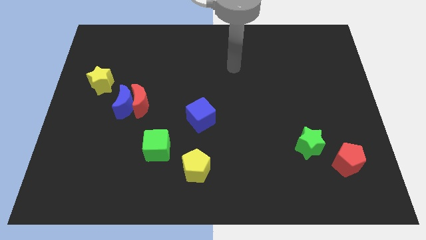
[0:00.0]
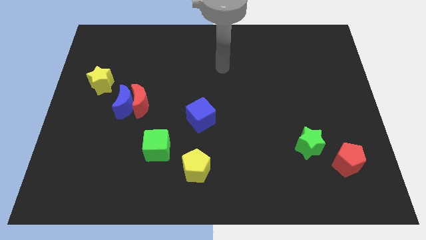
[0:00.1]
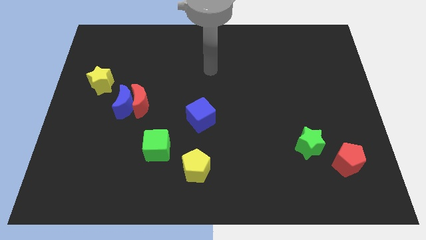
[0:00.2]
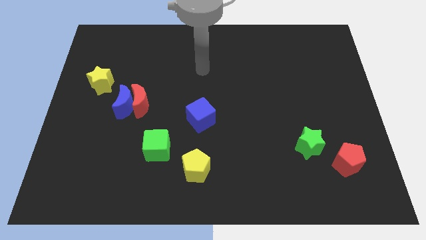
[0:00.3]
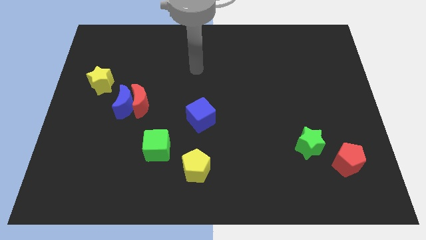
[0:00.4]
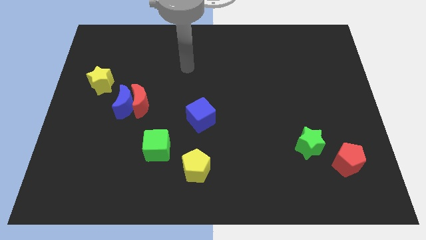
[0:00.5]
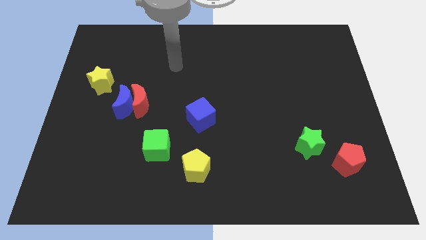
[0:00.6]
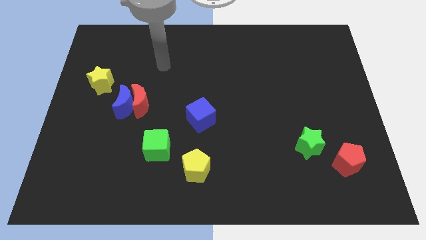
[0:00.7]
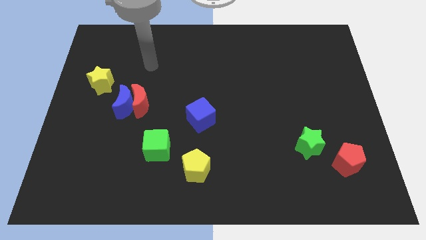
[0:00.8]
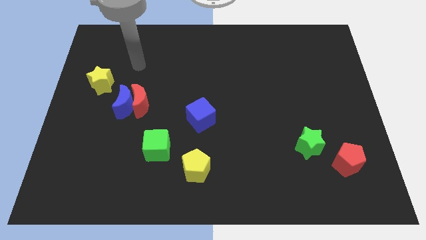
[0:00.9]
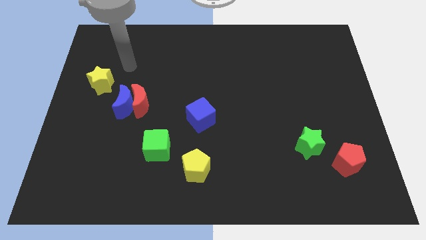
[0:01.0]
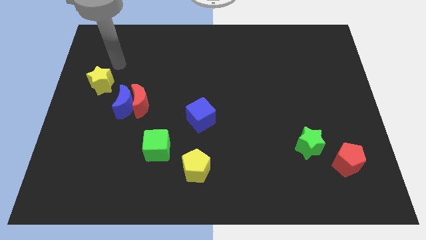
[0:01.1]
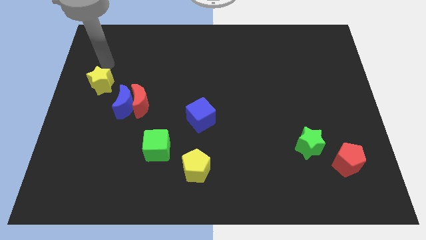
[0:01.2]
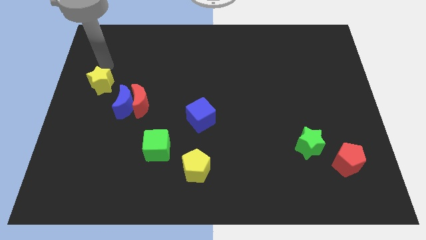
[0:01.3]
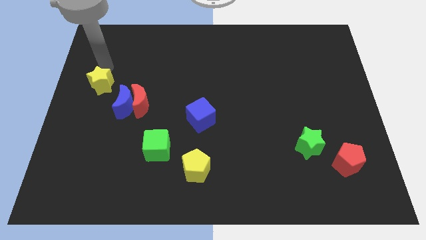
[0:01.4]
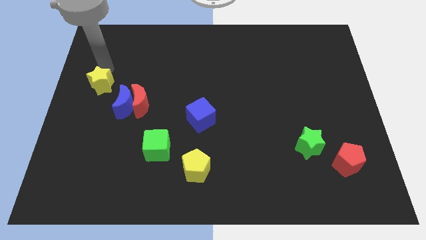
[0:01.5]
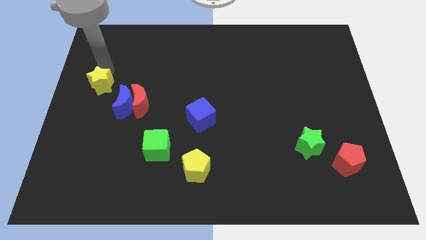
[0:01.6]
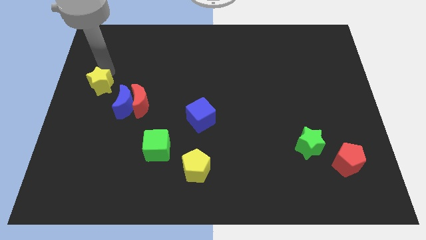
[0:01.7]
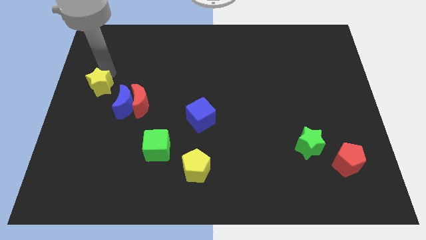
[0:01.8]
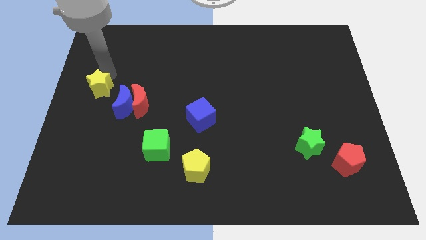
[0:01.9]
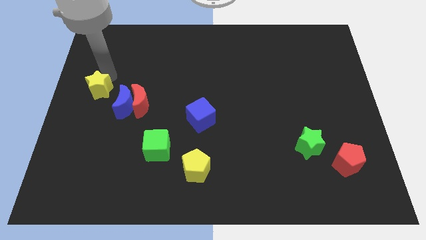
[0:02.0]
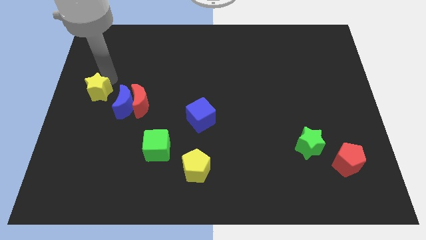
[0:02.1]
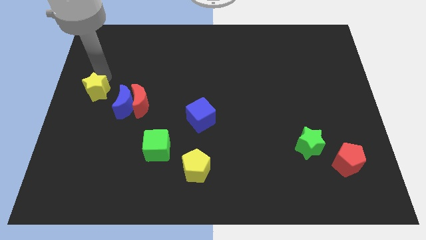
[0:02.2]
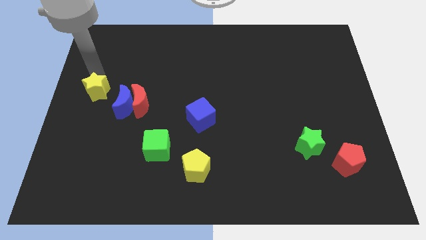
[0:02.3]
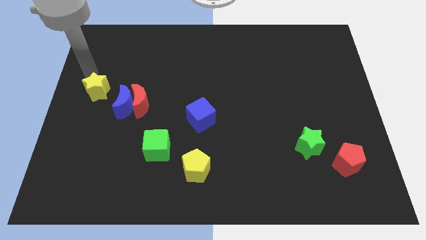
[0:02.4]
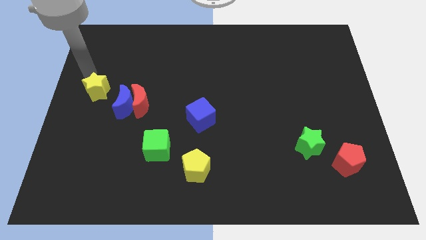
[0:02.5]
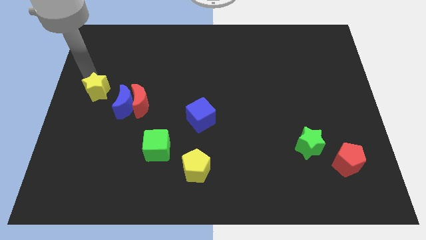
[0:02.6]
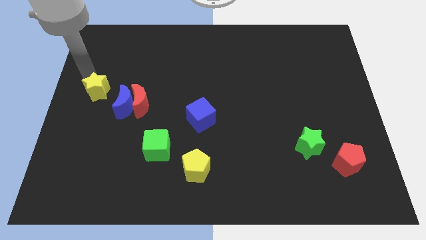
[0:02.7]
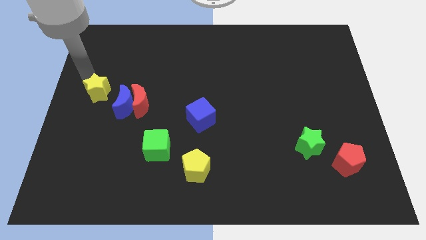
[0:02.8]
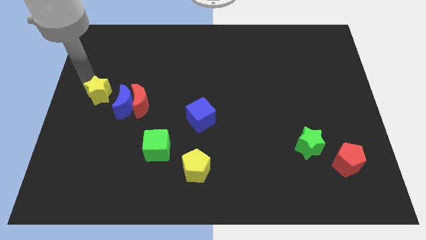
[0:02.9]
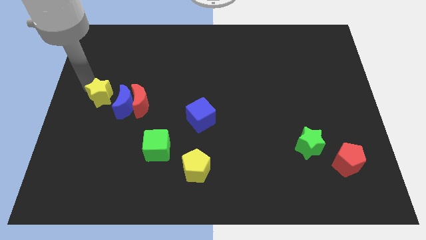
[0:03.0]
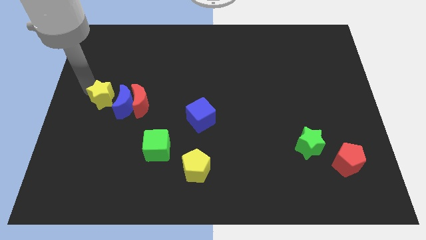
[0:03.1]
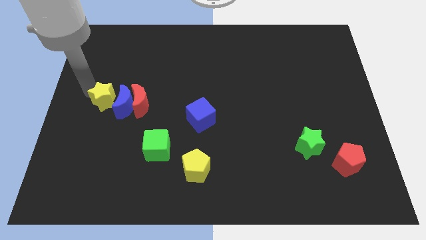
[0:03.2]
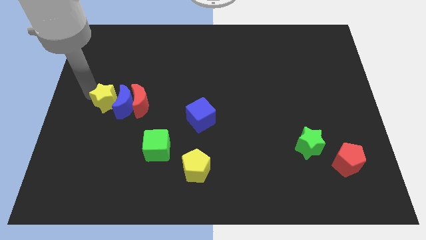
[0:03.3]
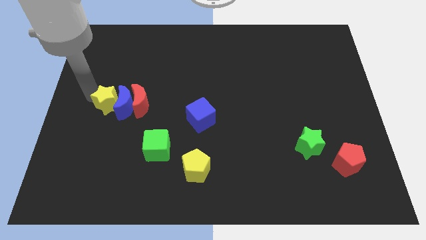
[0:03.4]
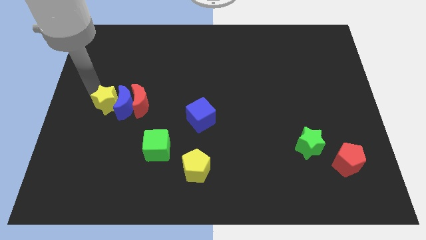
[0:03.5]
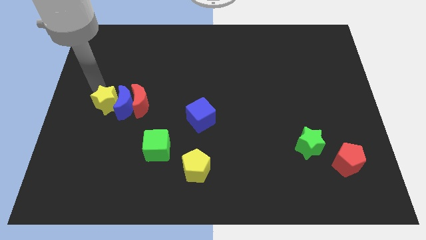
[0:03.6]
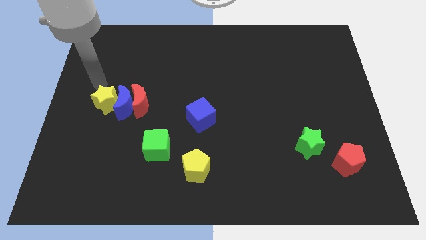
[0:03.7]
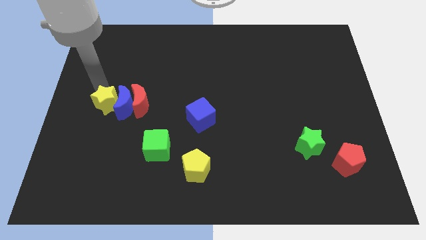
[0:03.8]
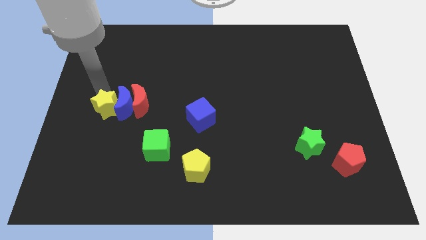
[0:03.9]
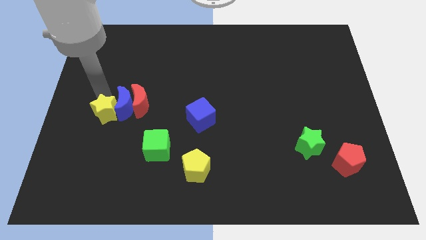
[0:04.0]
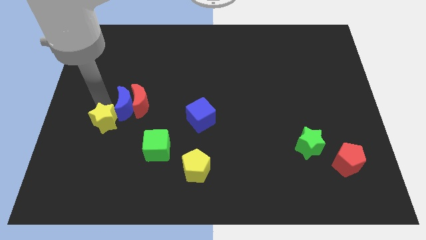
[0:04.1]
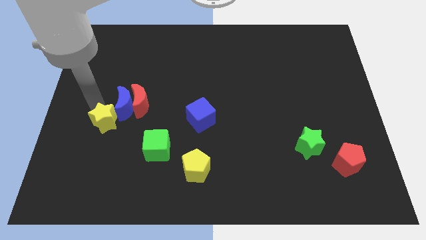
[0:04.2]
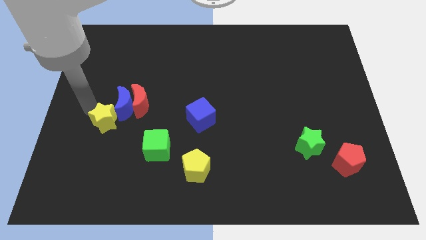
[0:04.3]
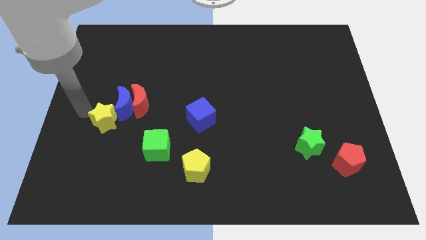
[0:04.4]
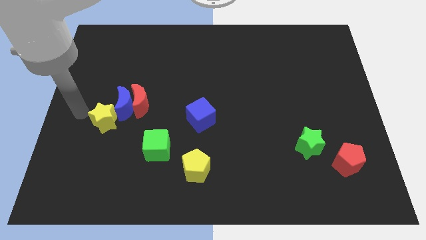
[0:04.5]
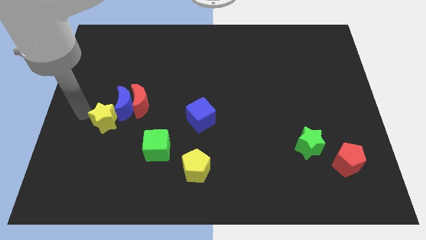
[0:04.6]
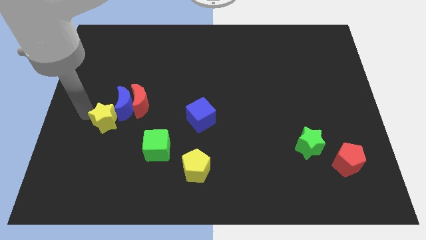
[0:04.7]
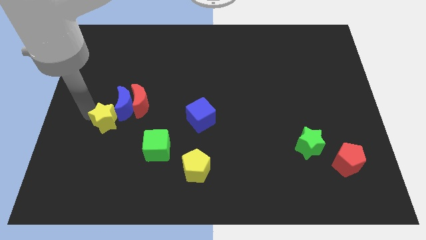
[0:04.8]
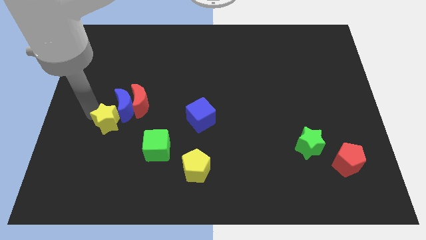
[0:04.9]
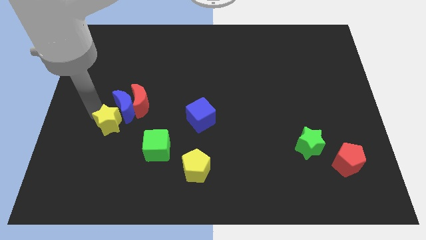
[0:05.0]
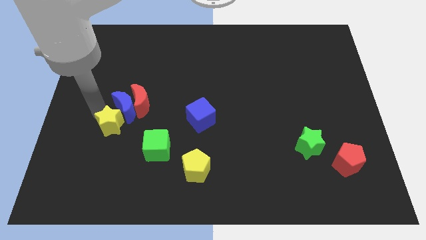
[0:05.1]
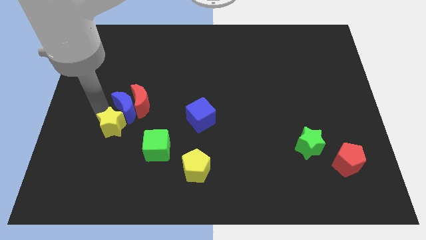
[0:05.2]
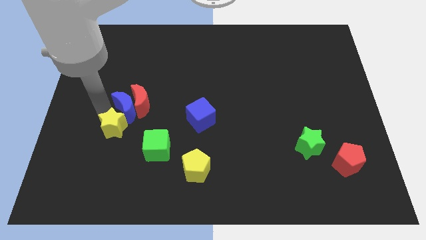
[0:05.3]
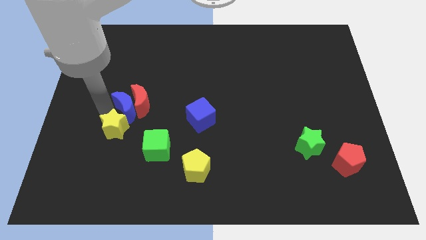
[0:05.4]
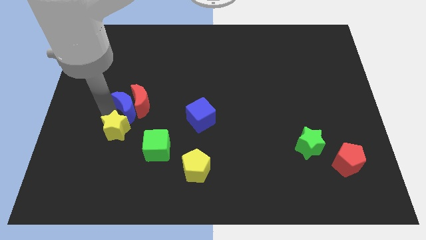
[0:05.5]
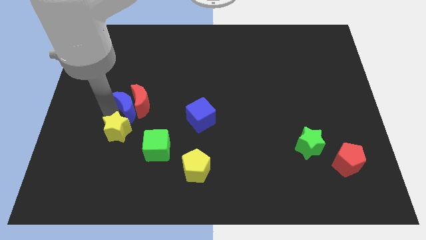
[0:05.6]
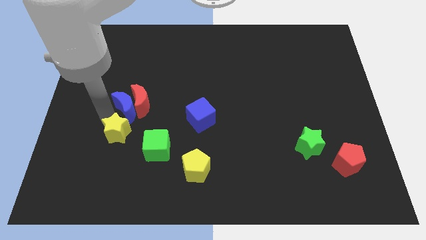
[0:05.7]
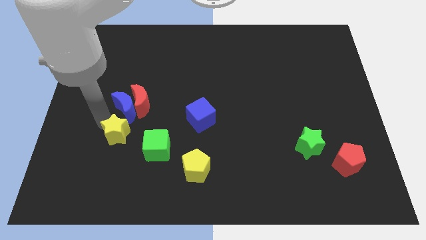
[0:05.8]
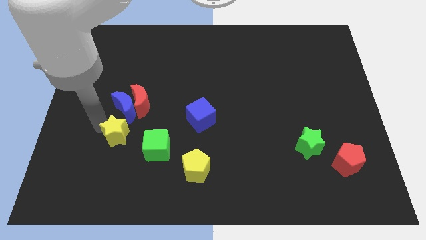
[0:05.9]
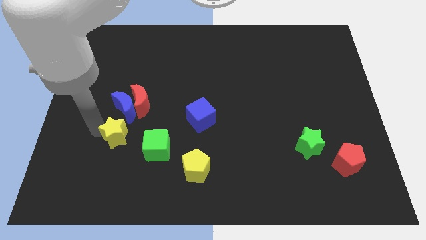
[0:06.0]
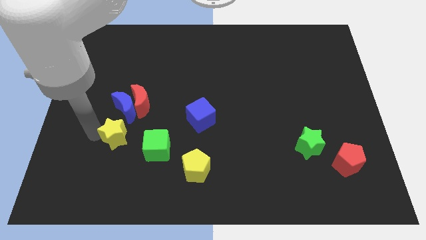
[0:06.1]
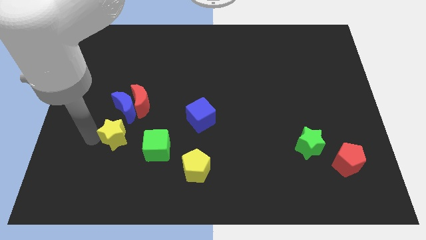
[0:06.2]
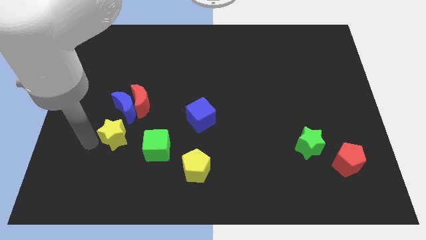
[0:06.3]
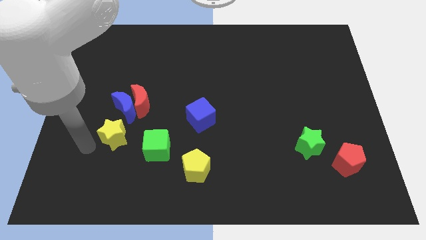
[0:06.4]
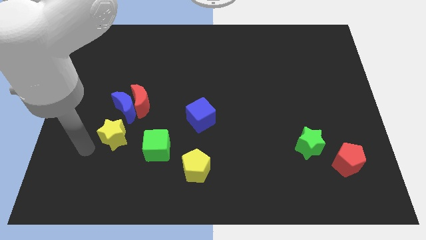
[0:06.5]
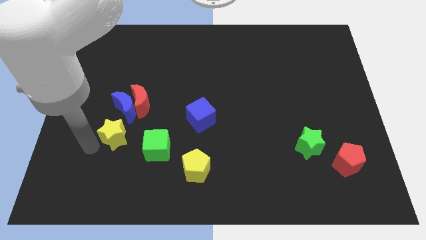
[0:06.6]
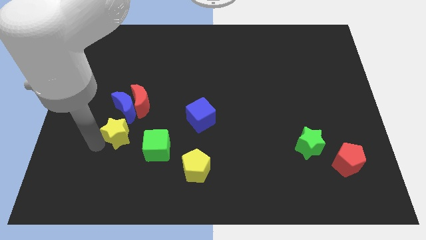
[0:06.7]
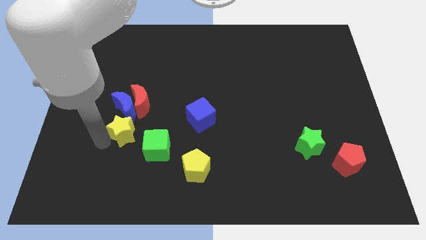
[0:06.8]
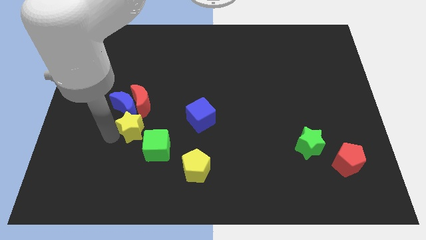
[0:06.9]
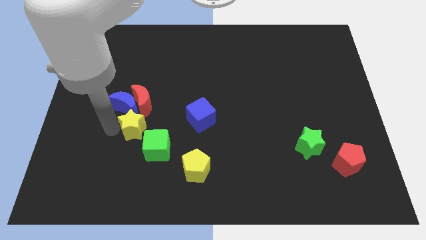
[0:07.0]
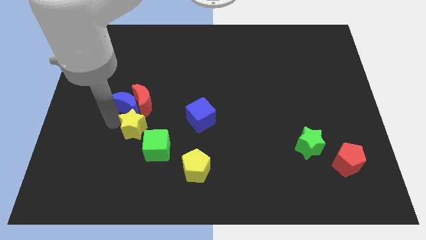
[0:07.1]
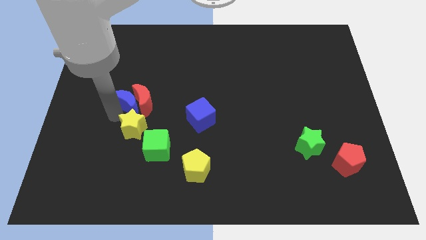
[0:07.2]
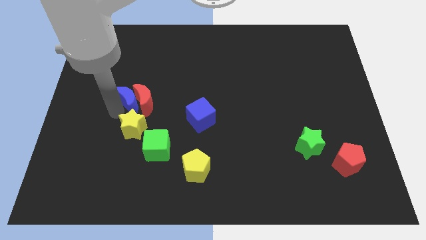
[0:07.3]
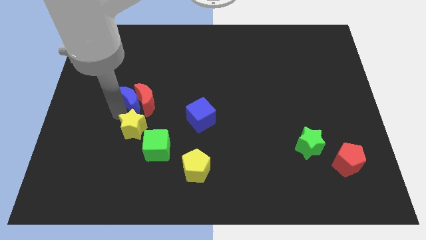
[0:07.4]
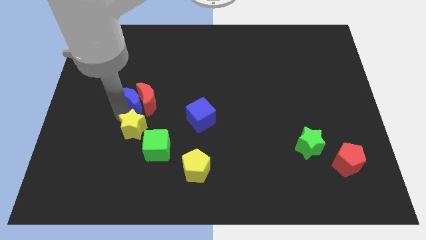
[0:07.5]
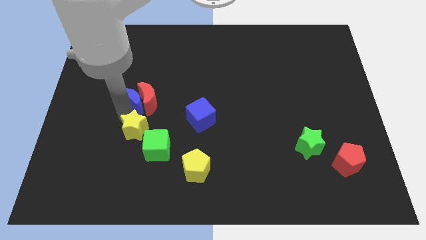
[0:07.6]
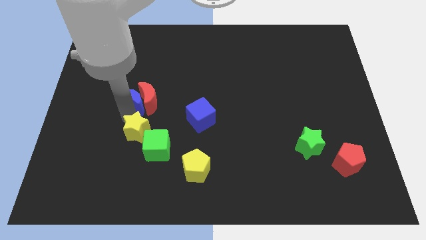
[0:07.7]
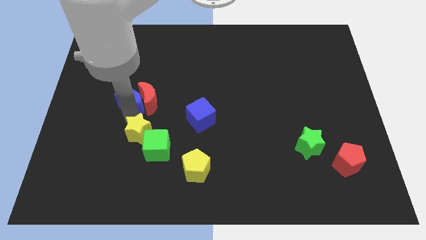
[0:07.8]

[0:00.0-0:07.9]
push the yellow star to the green cube

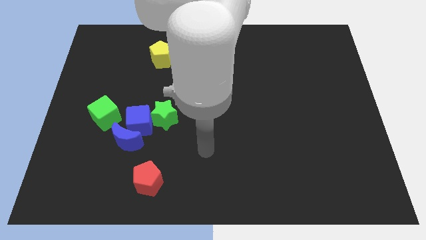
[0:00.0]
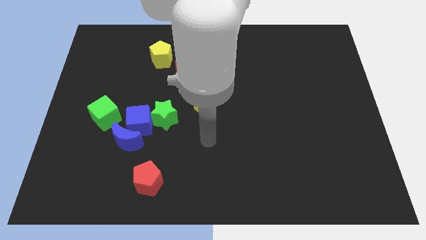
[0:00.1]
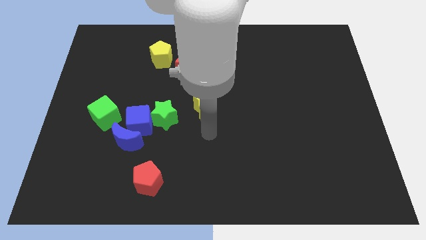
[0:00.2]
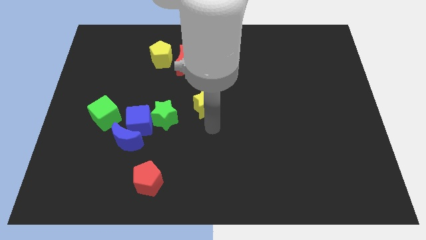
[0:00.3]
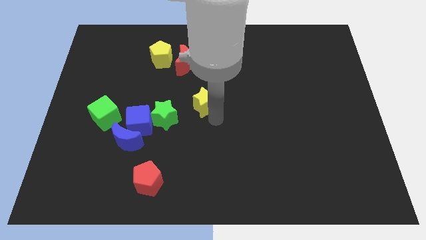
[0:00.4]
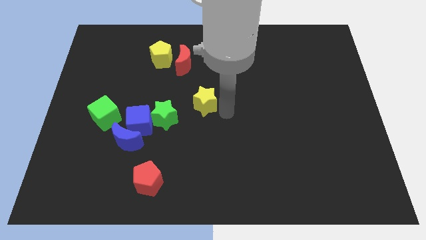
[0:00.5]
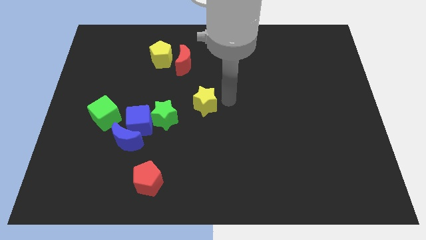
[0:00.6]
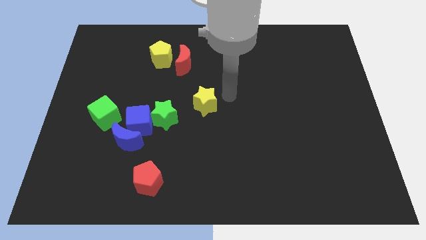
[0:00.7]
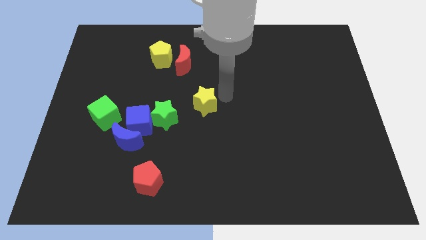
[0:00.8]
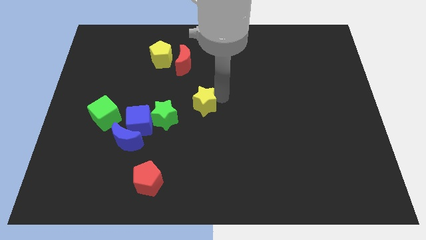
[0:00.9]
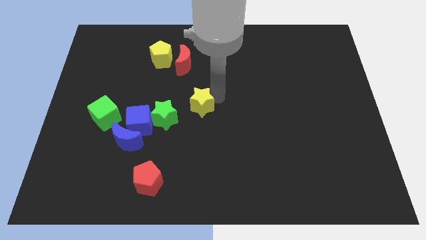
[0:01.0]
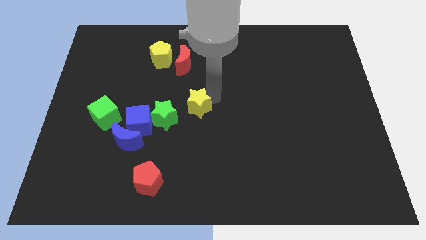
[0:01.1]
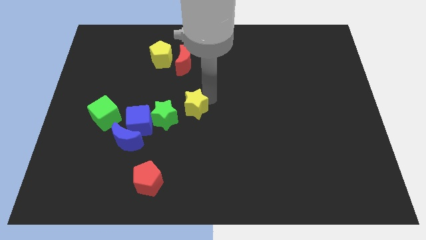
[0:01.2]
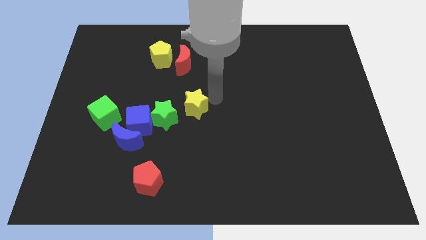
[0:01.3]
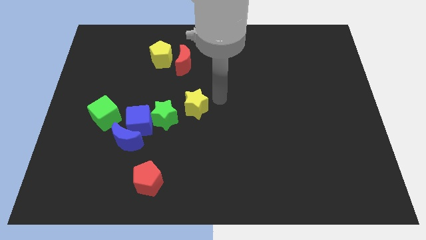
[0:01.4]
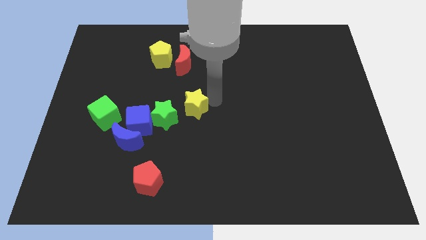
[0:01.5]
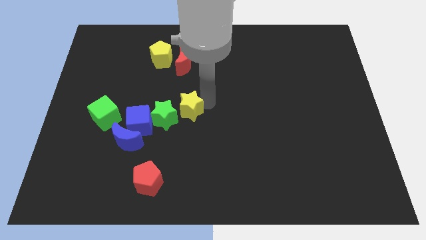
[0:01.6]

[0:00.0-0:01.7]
push the yellow star towards the green star
